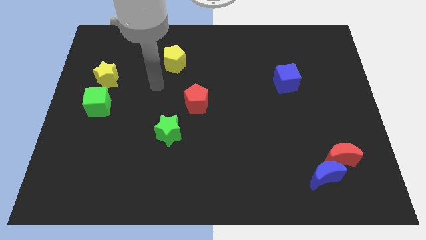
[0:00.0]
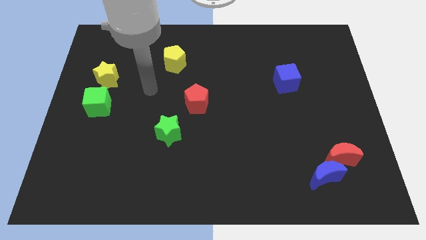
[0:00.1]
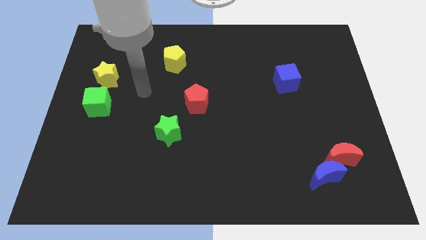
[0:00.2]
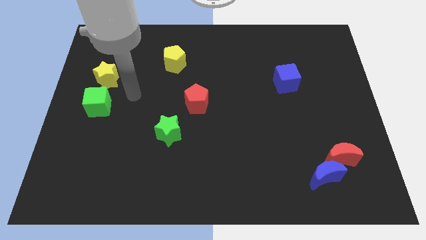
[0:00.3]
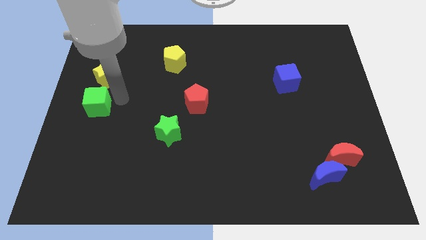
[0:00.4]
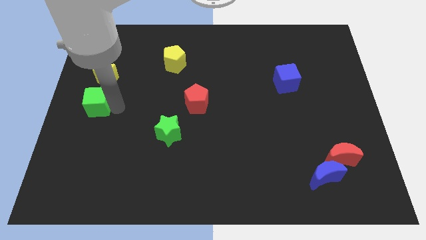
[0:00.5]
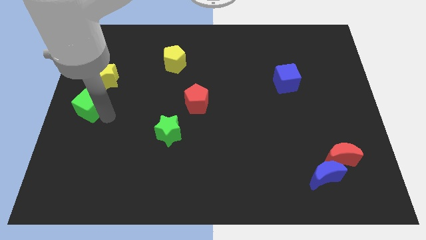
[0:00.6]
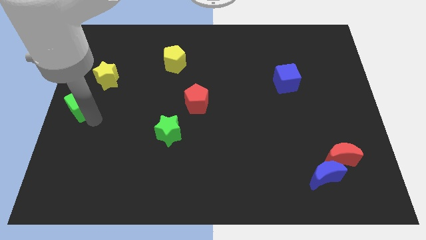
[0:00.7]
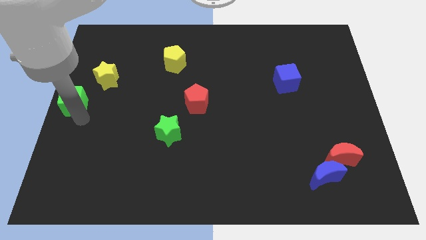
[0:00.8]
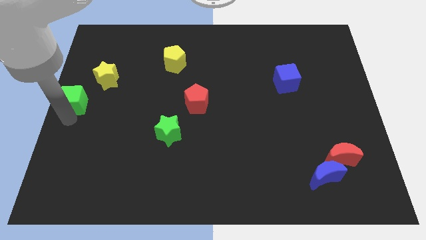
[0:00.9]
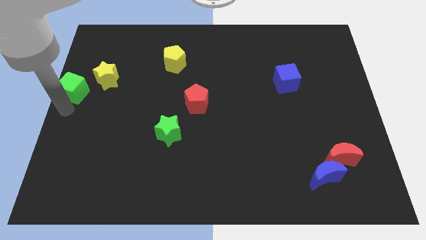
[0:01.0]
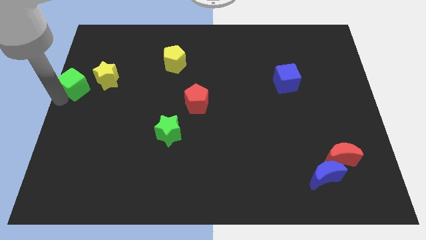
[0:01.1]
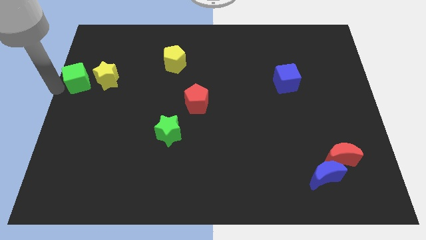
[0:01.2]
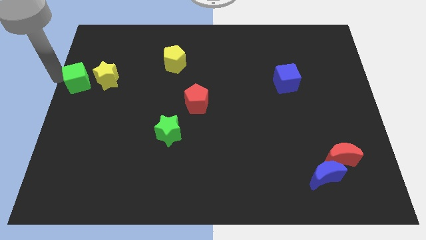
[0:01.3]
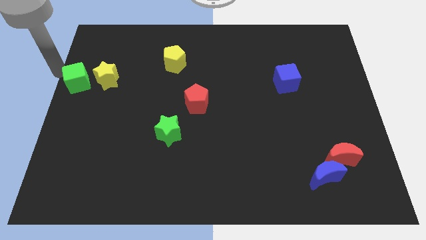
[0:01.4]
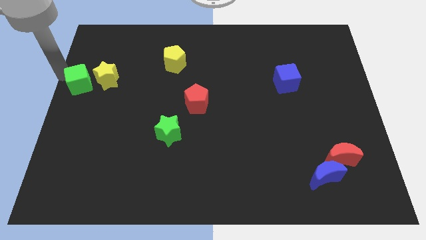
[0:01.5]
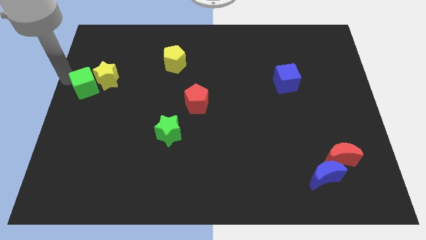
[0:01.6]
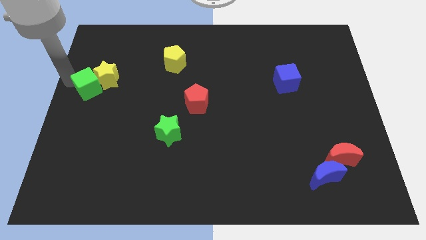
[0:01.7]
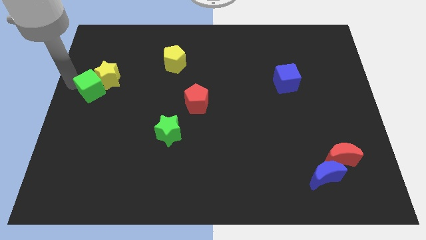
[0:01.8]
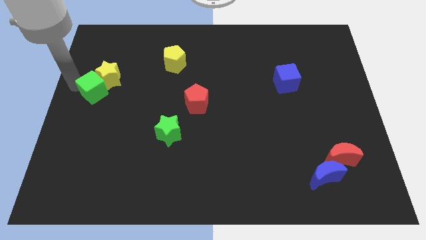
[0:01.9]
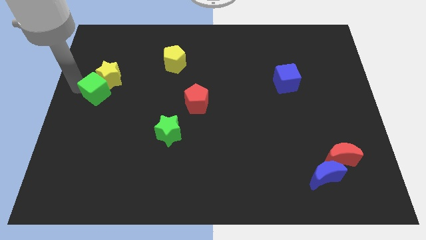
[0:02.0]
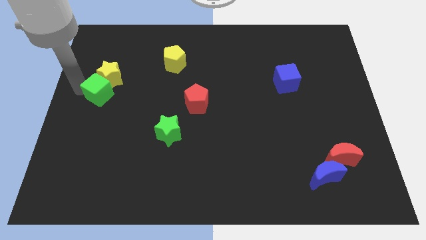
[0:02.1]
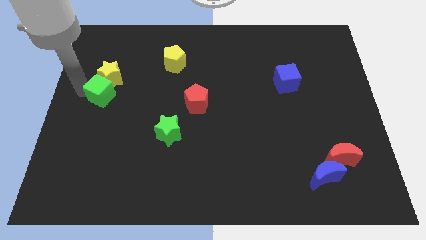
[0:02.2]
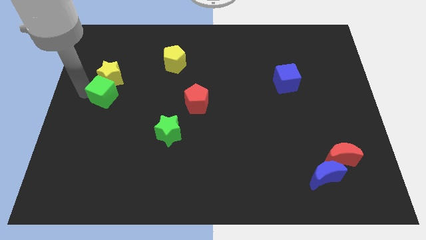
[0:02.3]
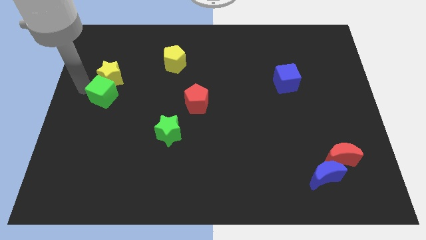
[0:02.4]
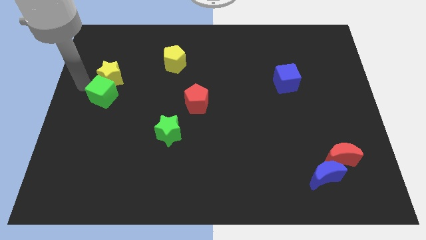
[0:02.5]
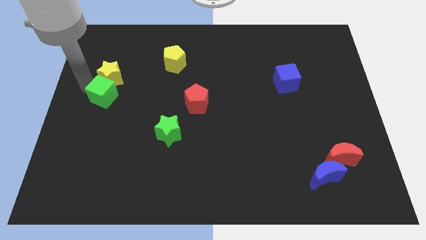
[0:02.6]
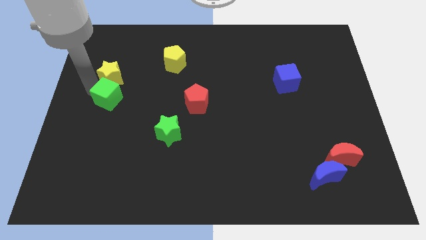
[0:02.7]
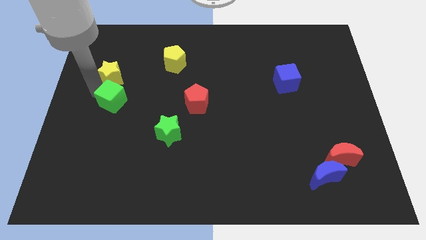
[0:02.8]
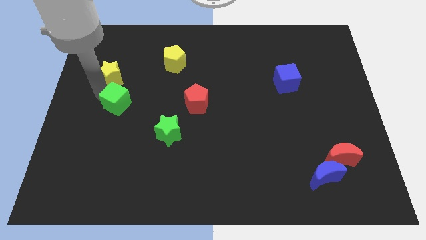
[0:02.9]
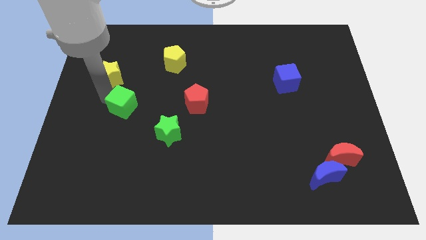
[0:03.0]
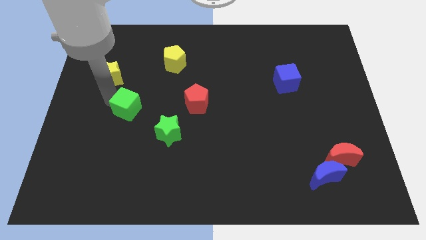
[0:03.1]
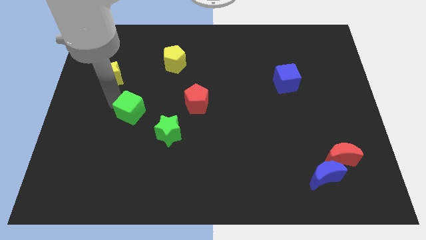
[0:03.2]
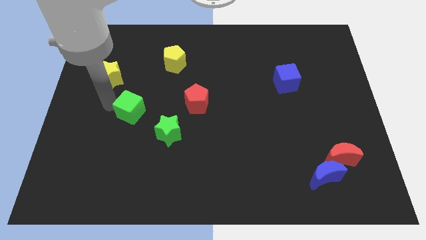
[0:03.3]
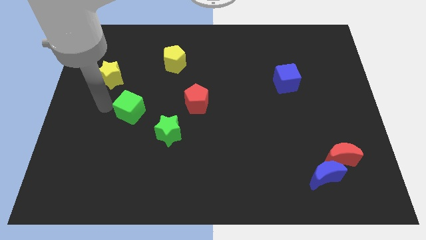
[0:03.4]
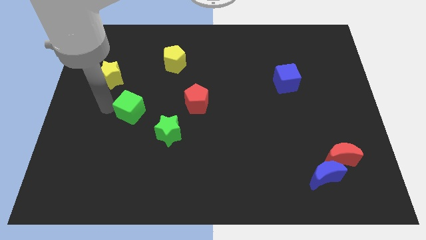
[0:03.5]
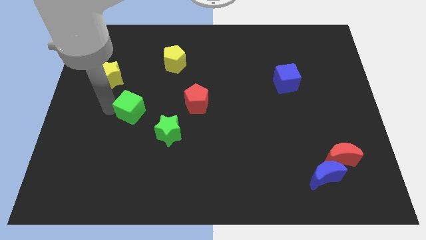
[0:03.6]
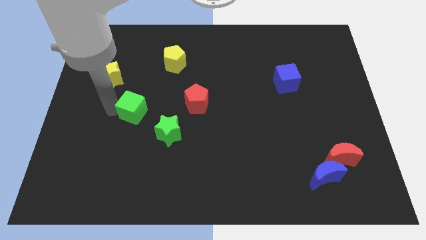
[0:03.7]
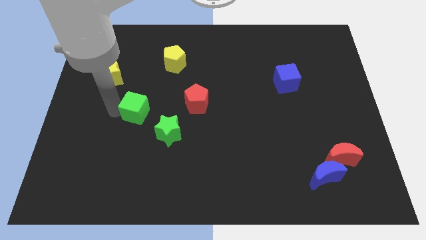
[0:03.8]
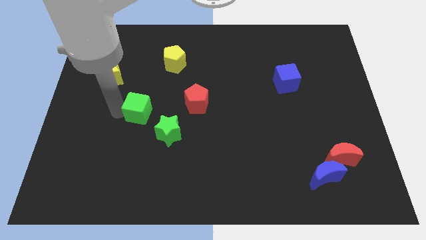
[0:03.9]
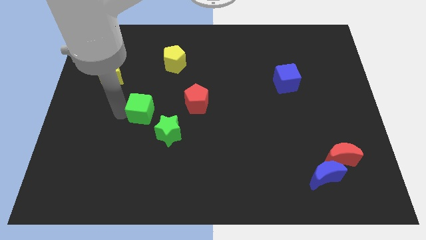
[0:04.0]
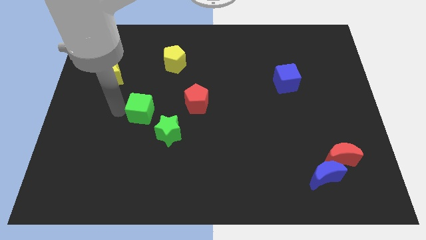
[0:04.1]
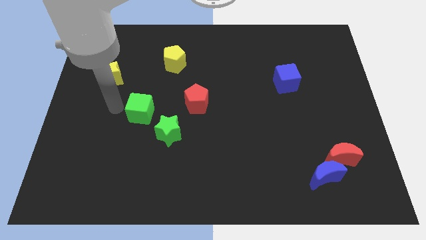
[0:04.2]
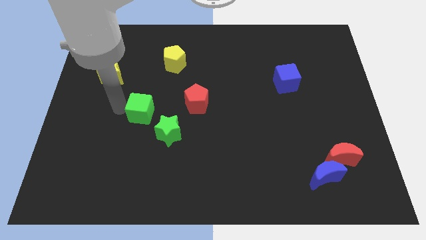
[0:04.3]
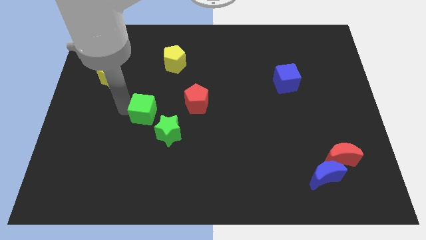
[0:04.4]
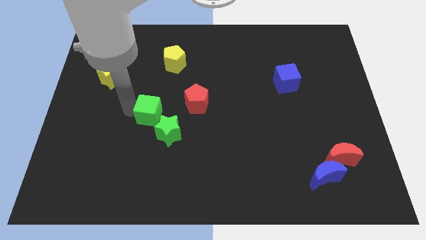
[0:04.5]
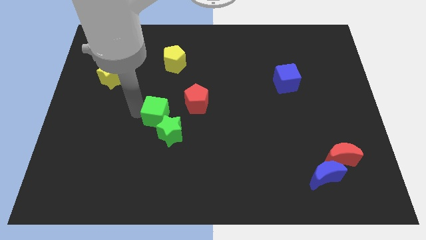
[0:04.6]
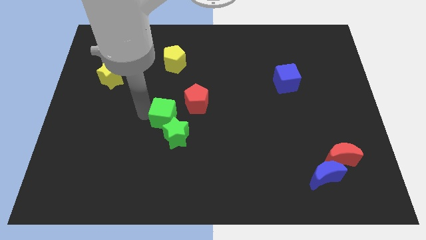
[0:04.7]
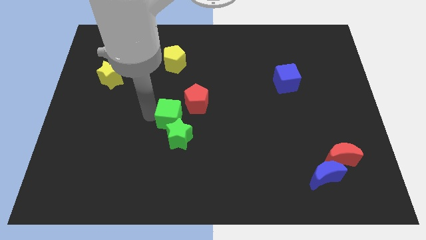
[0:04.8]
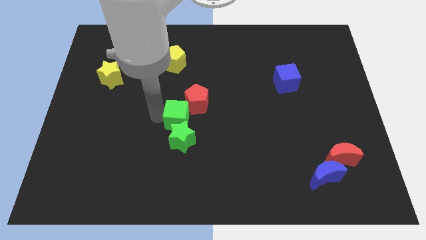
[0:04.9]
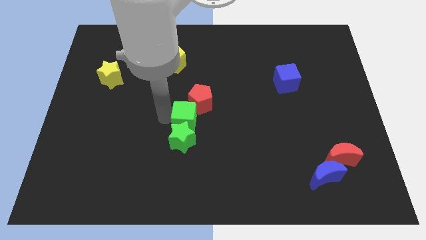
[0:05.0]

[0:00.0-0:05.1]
move the green cube to the right

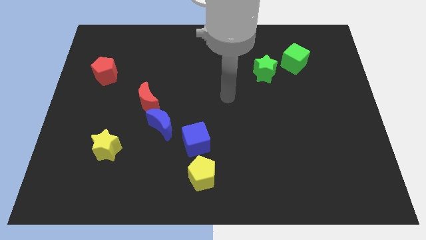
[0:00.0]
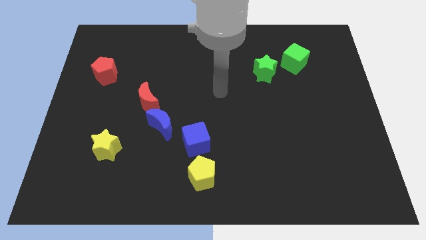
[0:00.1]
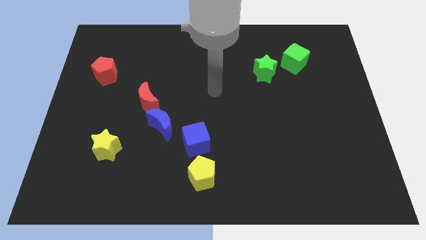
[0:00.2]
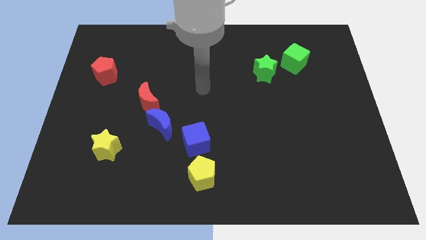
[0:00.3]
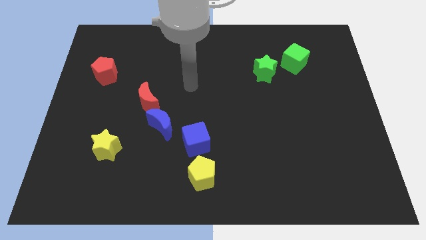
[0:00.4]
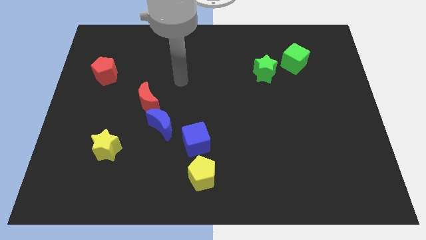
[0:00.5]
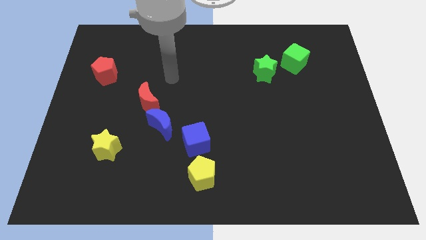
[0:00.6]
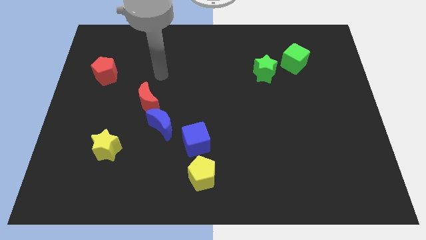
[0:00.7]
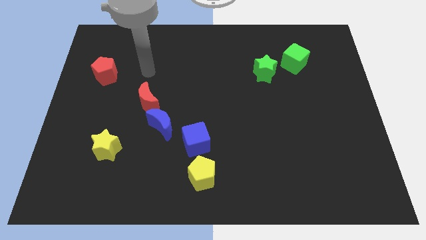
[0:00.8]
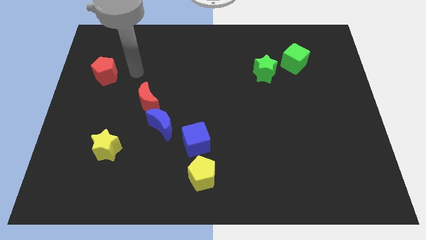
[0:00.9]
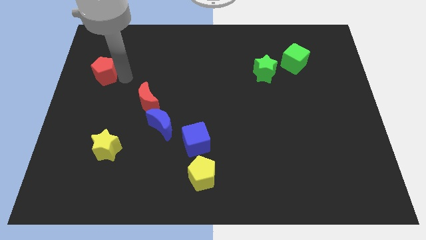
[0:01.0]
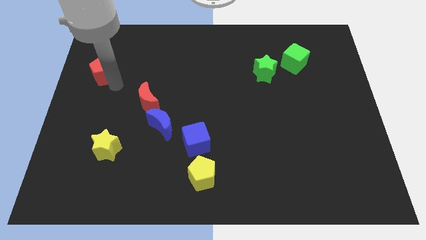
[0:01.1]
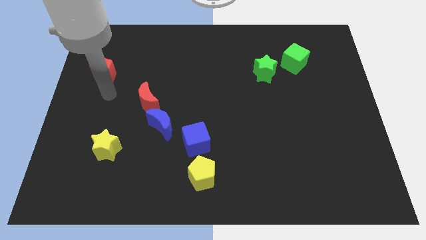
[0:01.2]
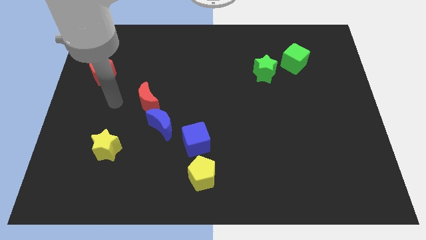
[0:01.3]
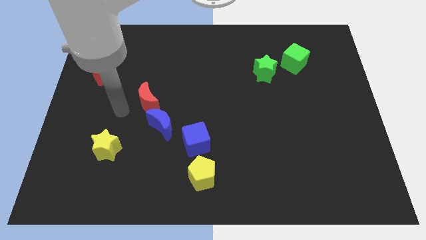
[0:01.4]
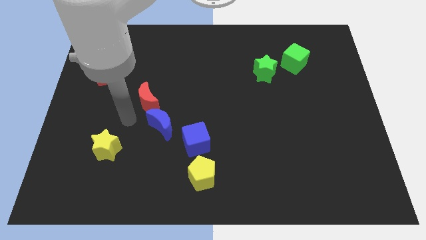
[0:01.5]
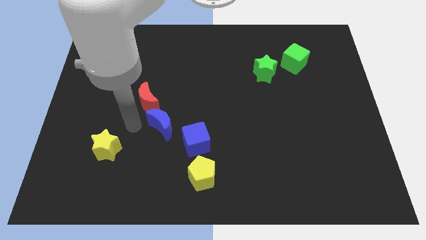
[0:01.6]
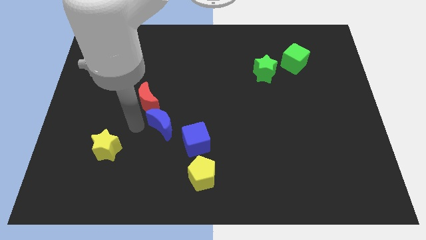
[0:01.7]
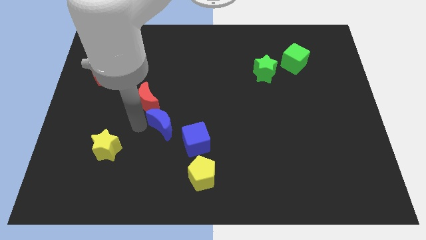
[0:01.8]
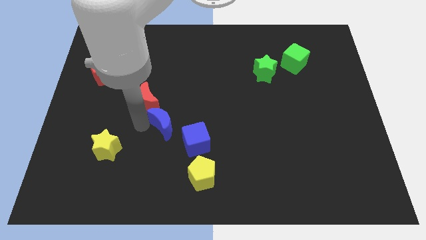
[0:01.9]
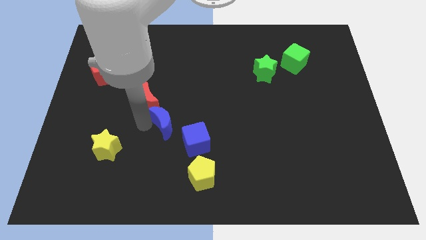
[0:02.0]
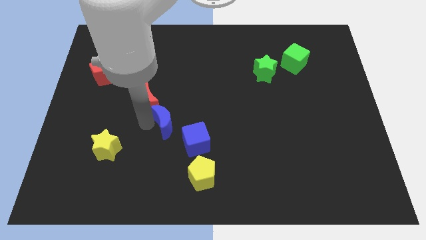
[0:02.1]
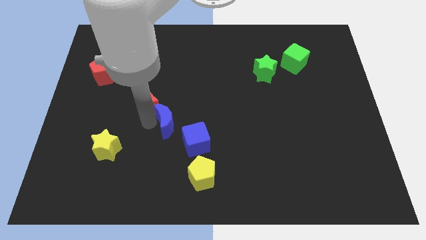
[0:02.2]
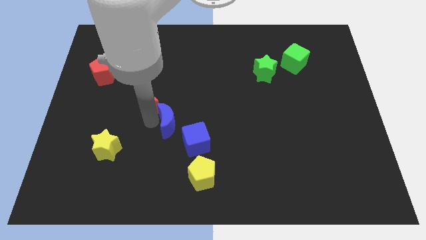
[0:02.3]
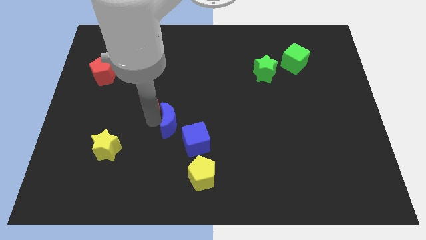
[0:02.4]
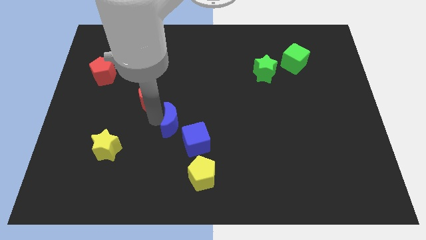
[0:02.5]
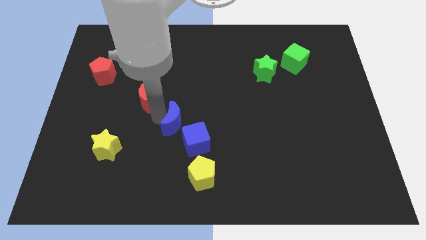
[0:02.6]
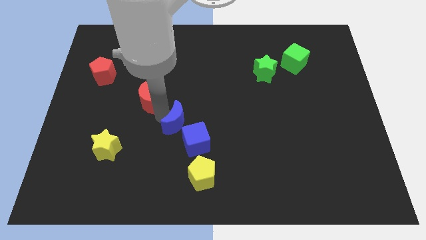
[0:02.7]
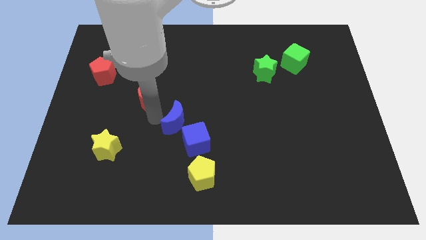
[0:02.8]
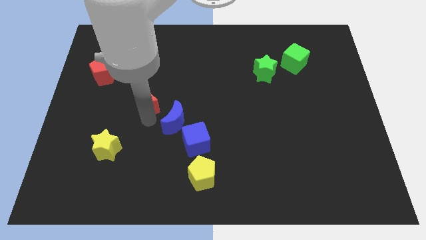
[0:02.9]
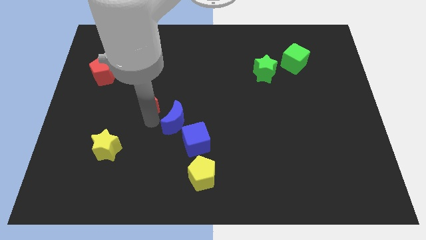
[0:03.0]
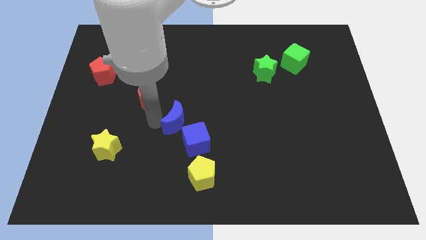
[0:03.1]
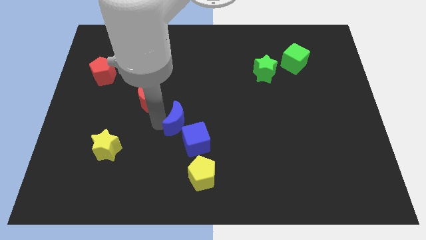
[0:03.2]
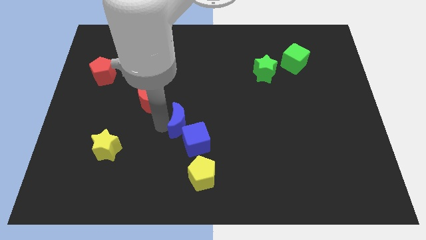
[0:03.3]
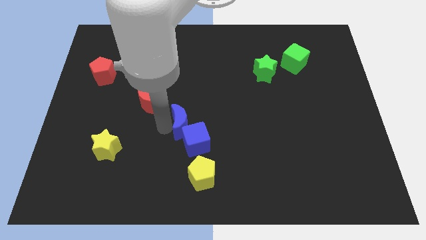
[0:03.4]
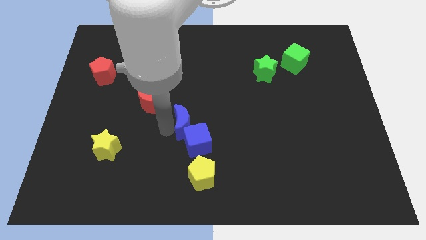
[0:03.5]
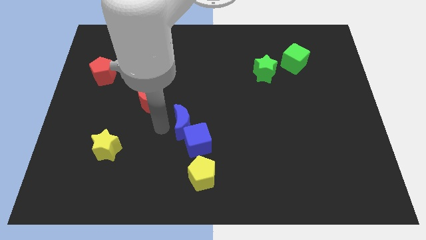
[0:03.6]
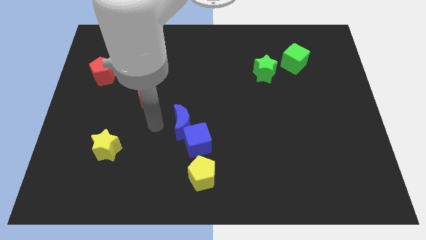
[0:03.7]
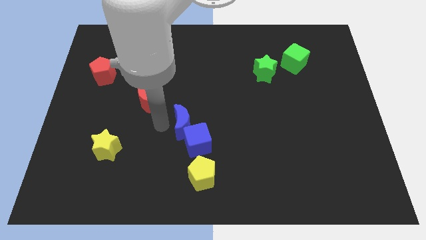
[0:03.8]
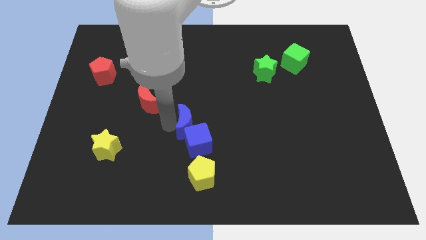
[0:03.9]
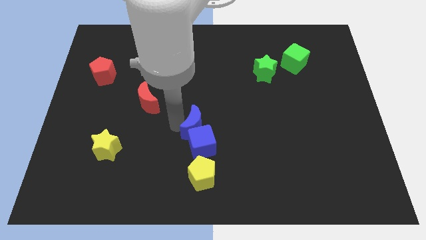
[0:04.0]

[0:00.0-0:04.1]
slide the blue moon to the right a little
